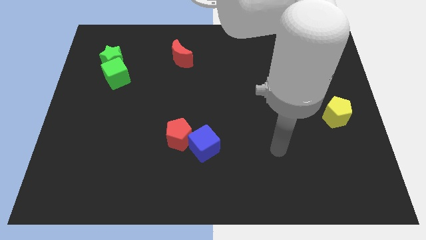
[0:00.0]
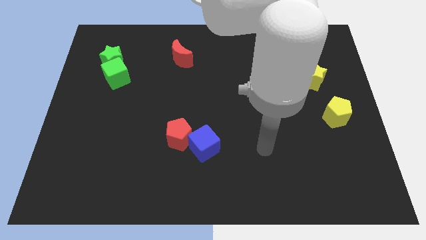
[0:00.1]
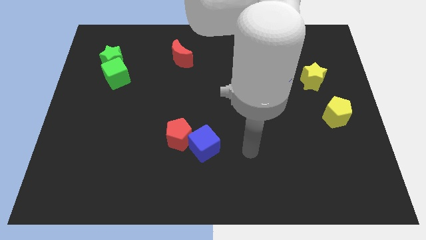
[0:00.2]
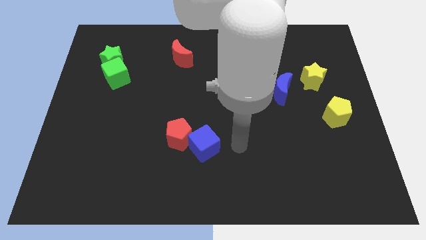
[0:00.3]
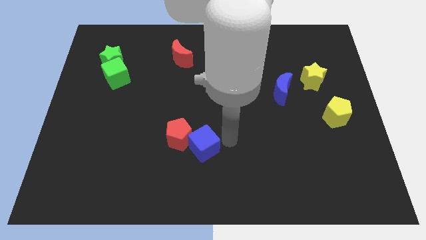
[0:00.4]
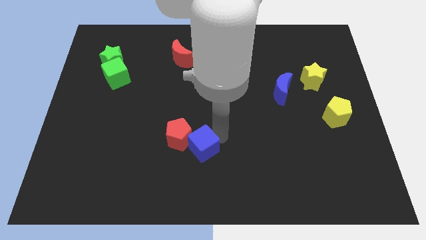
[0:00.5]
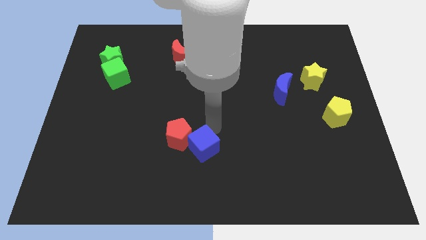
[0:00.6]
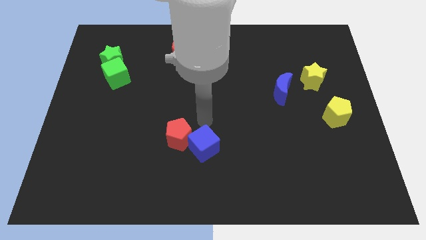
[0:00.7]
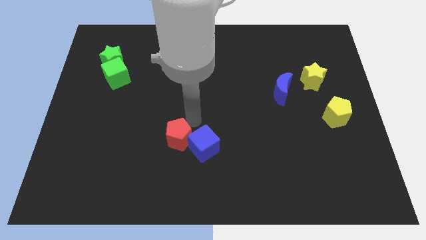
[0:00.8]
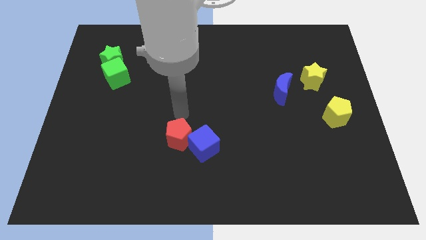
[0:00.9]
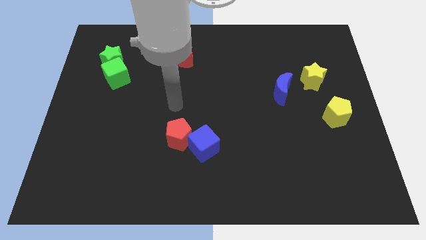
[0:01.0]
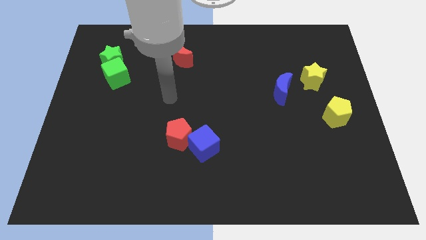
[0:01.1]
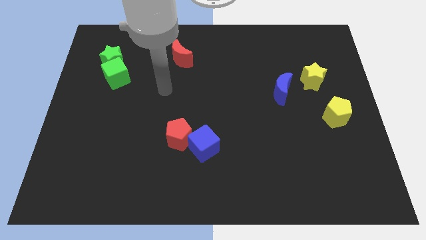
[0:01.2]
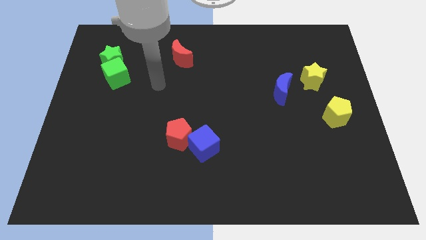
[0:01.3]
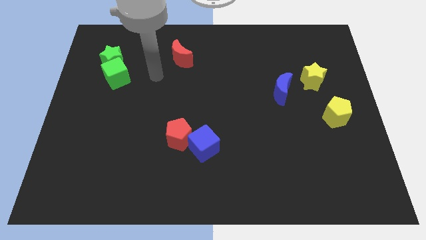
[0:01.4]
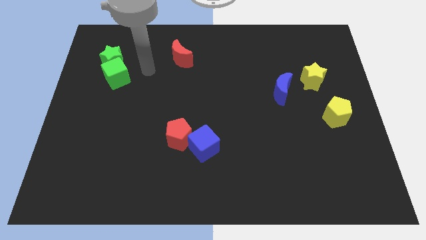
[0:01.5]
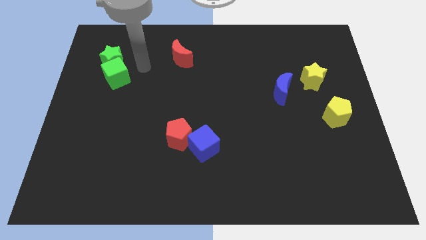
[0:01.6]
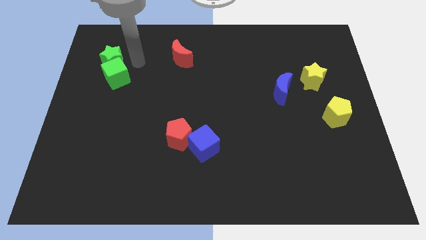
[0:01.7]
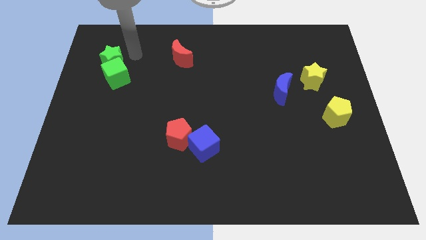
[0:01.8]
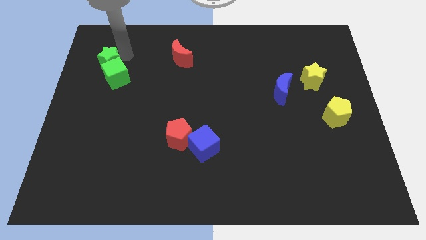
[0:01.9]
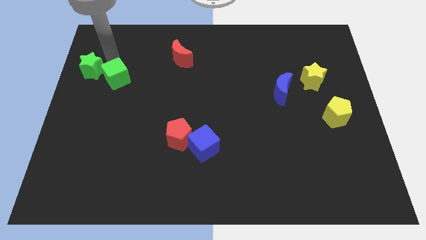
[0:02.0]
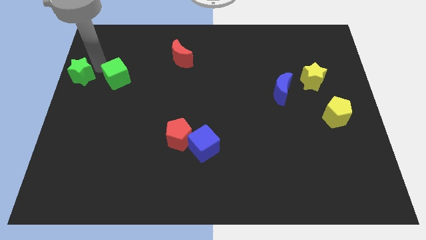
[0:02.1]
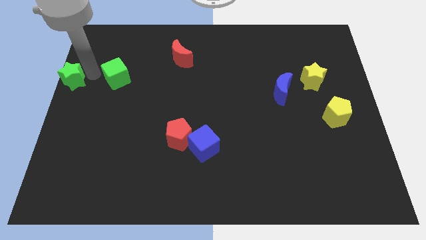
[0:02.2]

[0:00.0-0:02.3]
move the green cube away from the green star

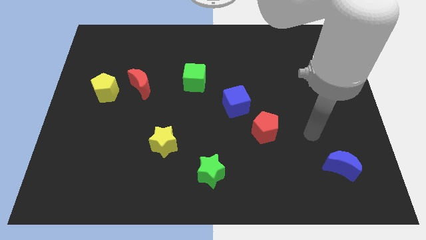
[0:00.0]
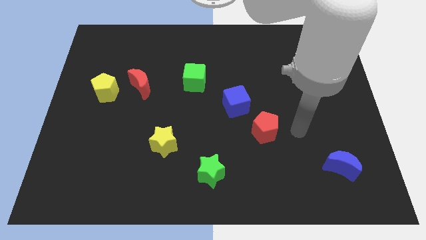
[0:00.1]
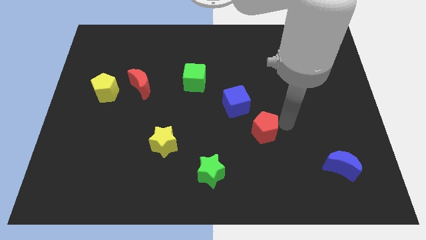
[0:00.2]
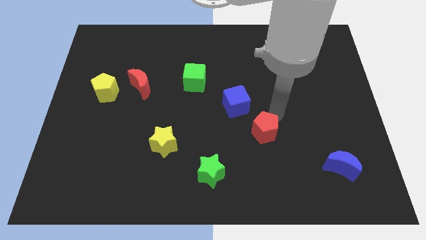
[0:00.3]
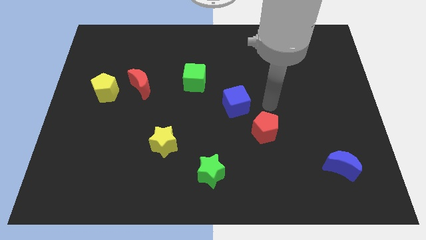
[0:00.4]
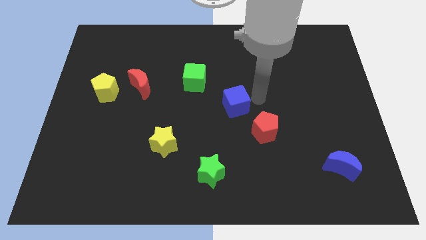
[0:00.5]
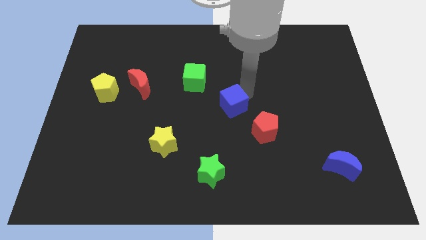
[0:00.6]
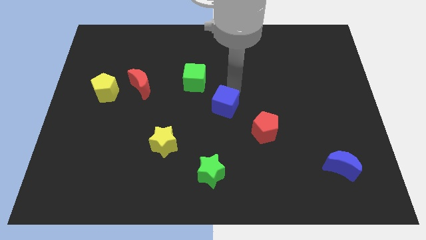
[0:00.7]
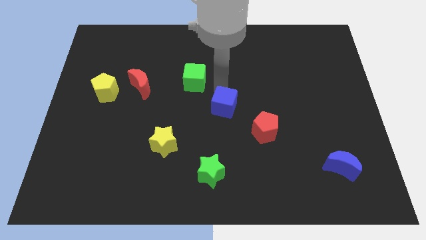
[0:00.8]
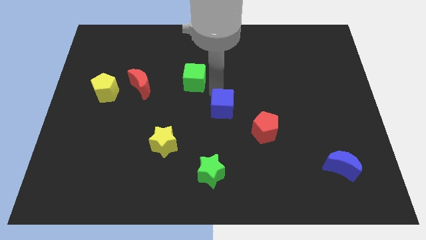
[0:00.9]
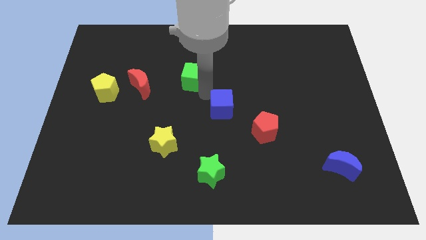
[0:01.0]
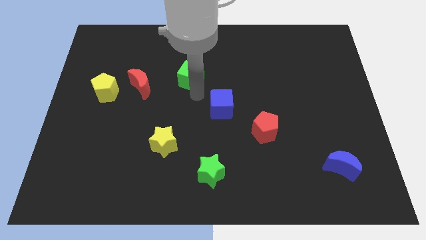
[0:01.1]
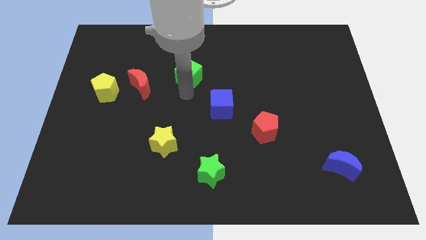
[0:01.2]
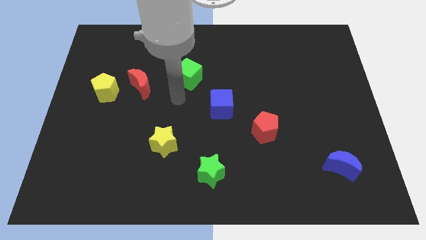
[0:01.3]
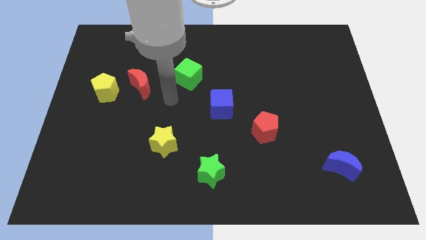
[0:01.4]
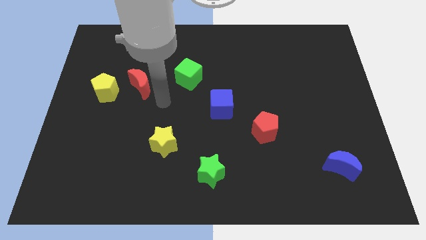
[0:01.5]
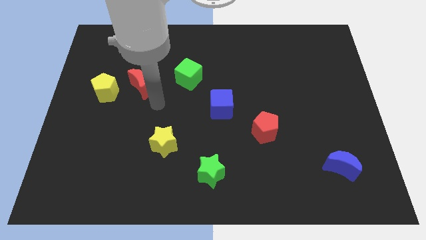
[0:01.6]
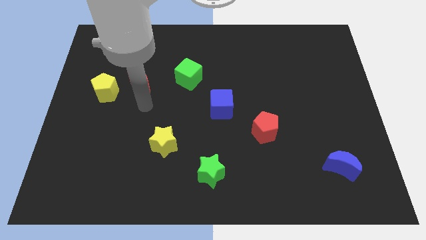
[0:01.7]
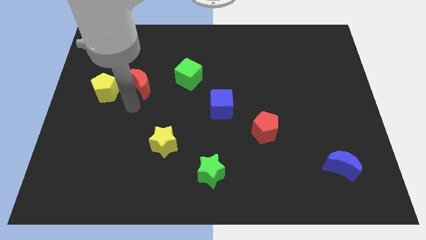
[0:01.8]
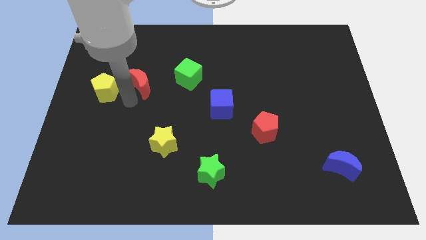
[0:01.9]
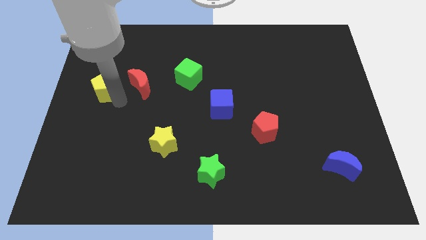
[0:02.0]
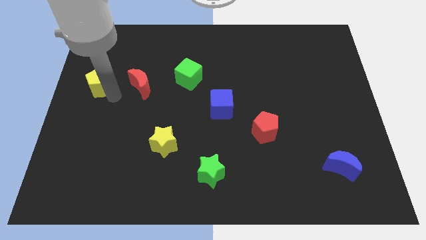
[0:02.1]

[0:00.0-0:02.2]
pull the red moon apart from the yellow pentagon

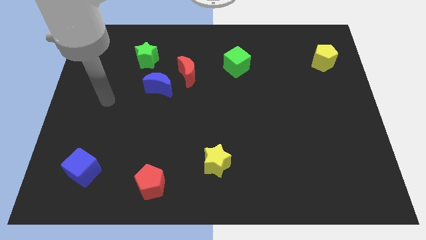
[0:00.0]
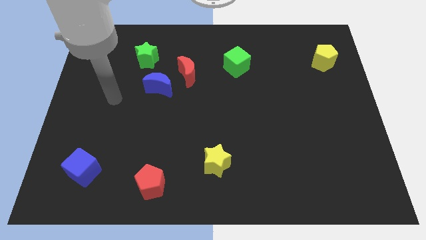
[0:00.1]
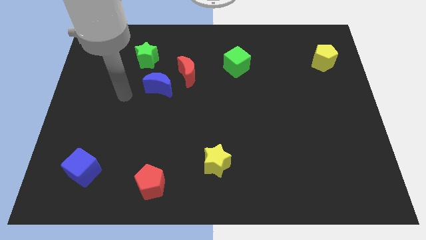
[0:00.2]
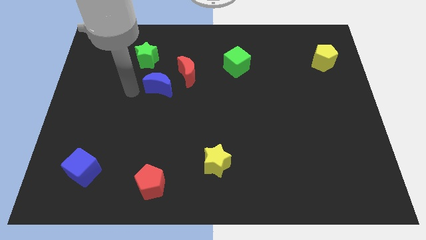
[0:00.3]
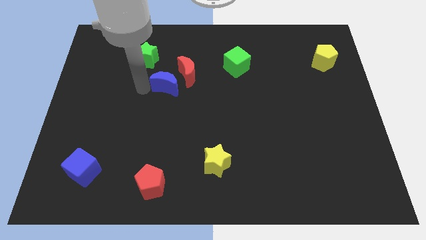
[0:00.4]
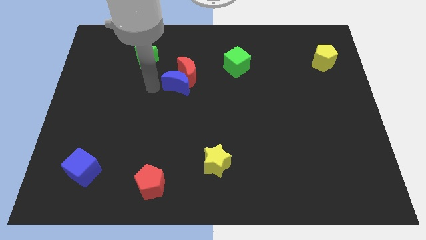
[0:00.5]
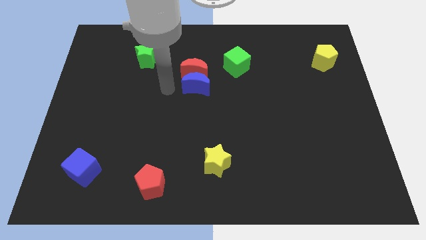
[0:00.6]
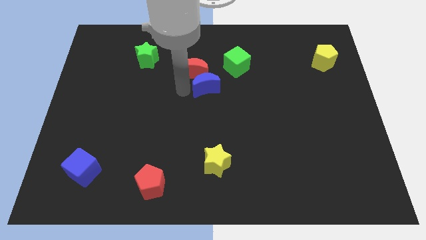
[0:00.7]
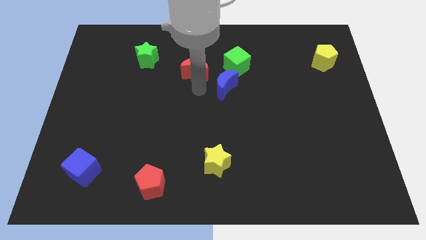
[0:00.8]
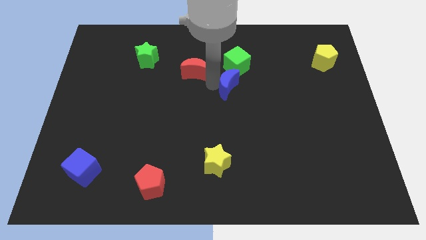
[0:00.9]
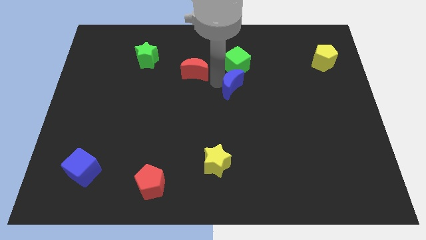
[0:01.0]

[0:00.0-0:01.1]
move the red moon away from the blue moon

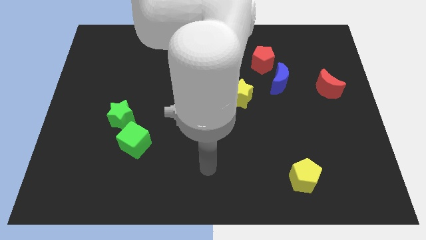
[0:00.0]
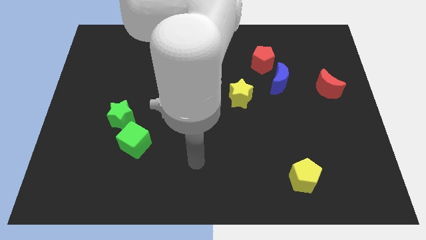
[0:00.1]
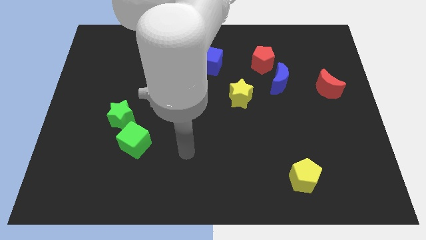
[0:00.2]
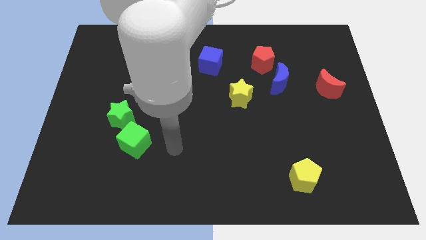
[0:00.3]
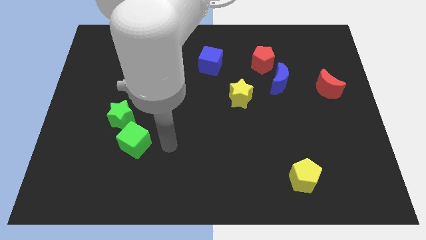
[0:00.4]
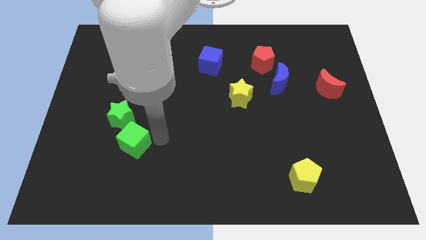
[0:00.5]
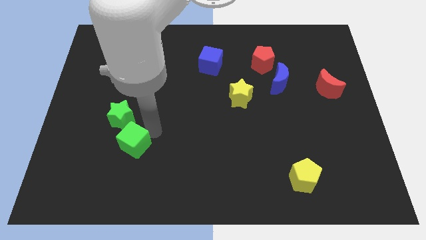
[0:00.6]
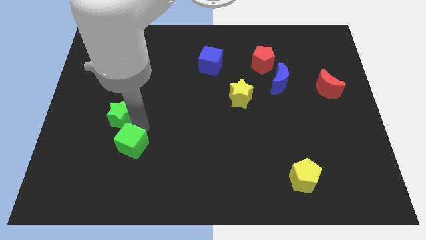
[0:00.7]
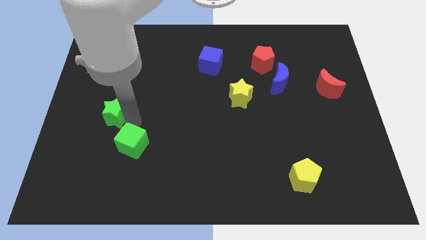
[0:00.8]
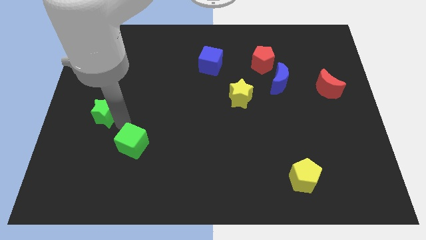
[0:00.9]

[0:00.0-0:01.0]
pull the green cube apart from the green star

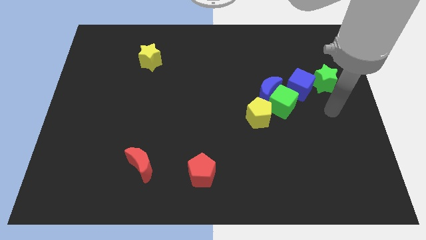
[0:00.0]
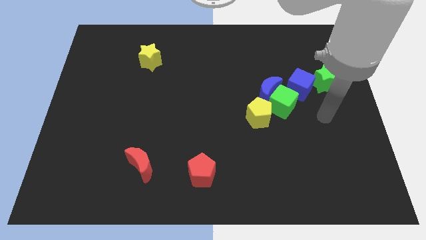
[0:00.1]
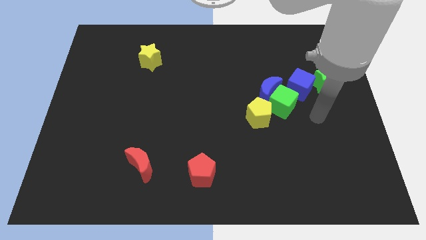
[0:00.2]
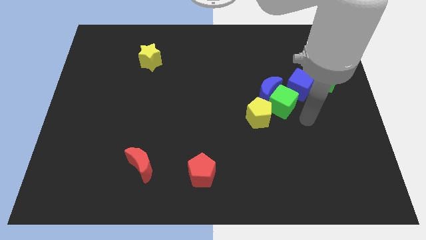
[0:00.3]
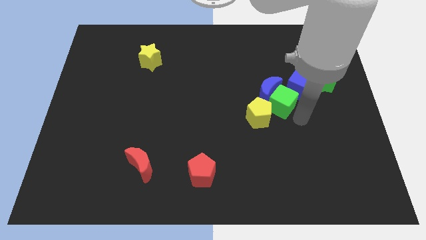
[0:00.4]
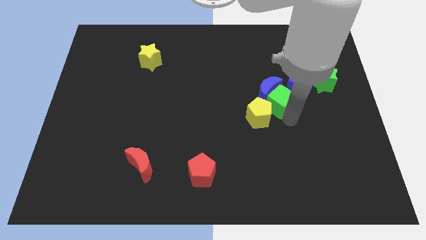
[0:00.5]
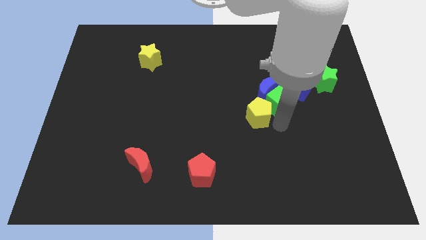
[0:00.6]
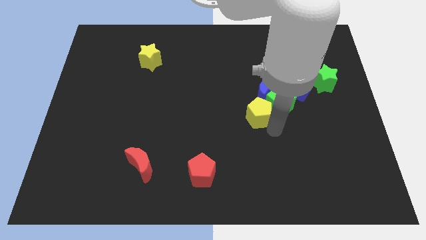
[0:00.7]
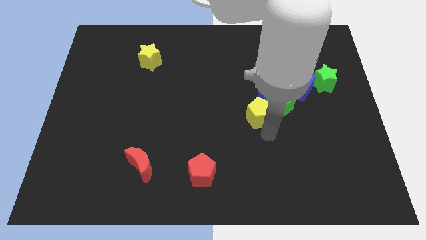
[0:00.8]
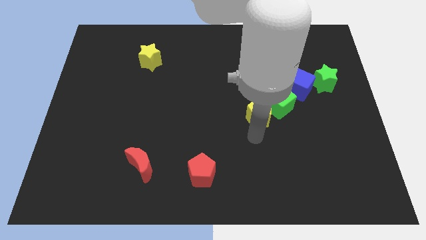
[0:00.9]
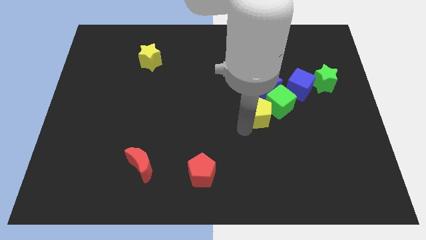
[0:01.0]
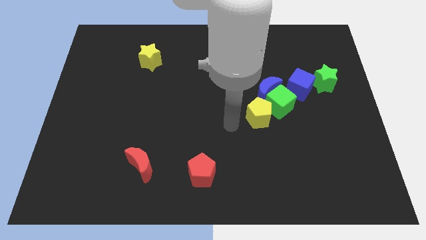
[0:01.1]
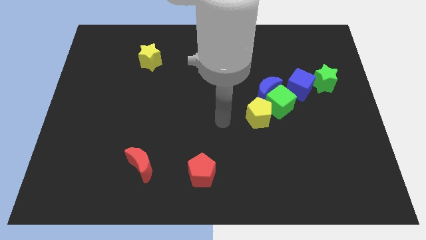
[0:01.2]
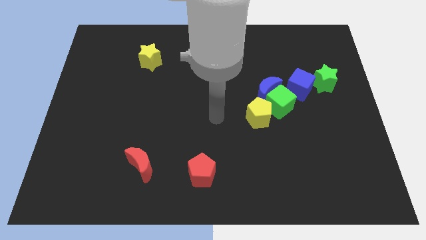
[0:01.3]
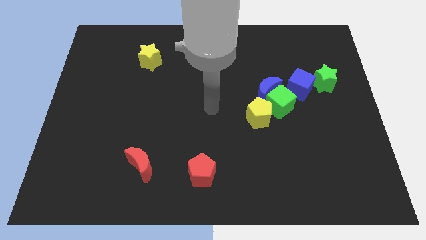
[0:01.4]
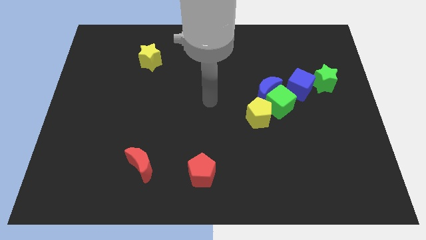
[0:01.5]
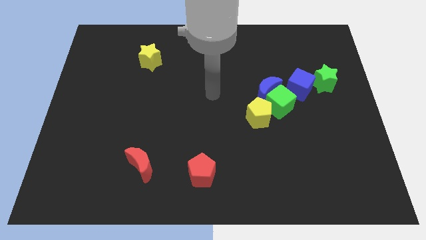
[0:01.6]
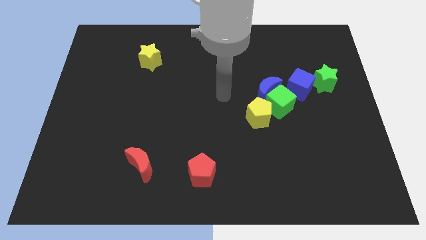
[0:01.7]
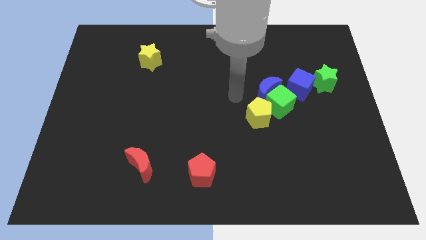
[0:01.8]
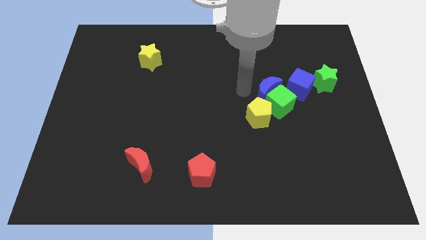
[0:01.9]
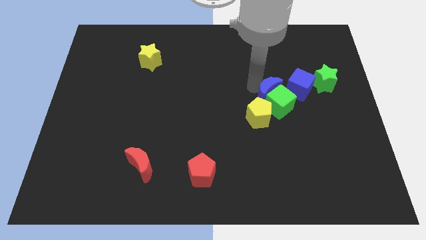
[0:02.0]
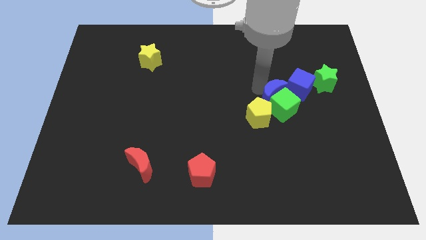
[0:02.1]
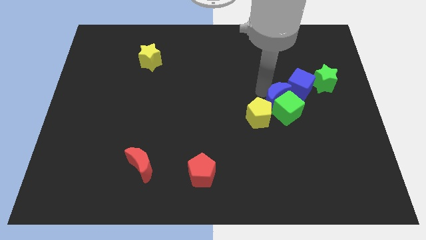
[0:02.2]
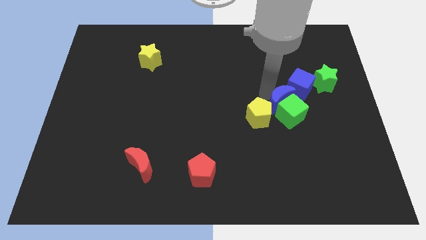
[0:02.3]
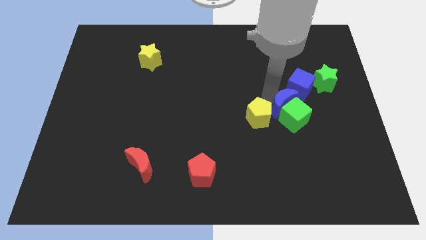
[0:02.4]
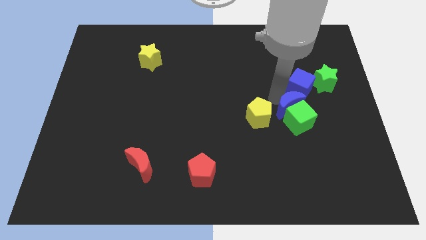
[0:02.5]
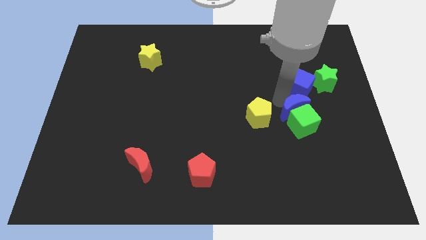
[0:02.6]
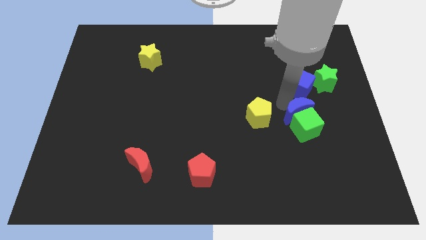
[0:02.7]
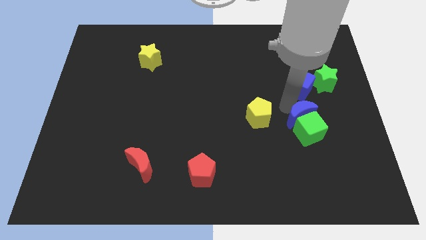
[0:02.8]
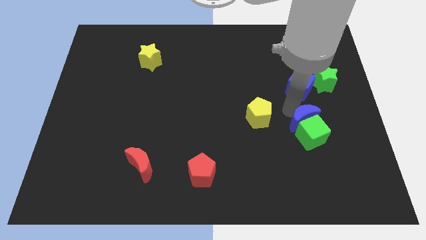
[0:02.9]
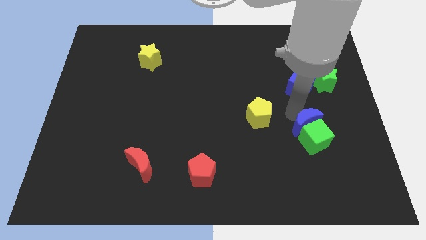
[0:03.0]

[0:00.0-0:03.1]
separate the green cube from the clump
